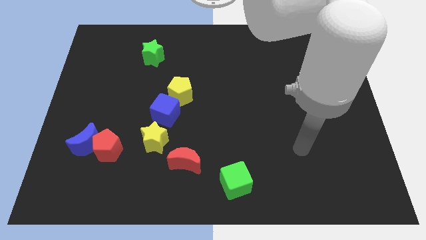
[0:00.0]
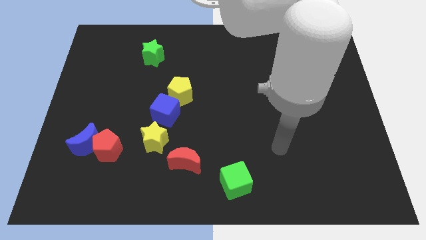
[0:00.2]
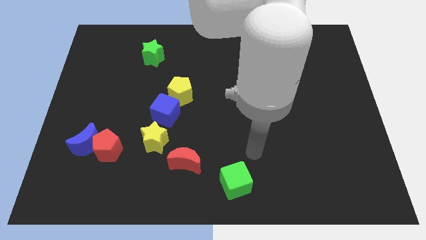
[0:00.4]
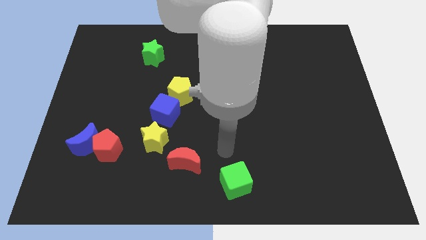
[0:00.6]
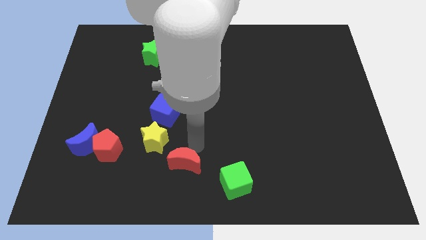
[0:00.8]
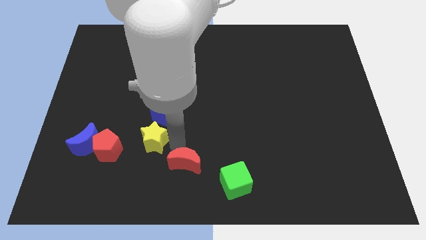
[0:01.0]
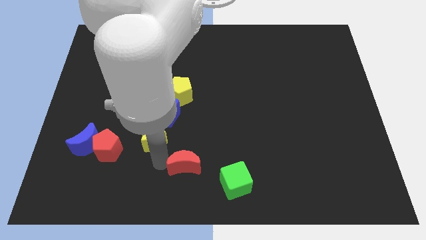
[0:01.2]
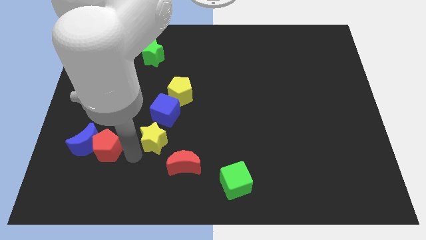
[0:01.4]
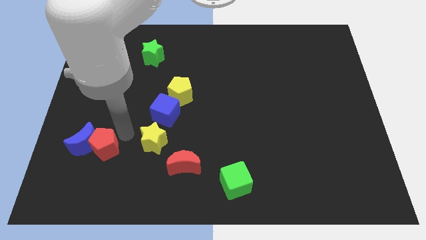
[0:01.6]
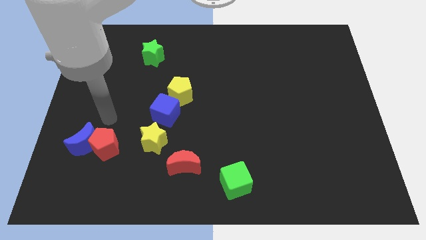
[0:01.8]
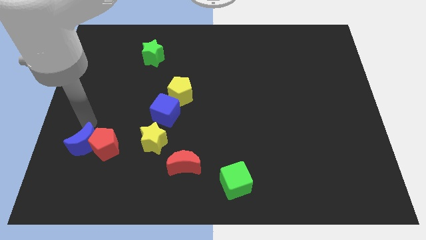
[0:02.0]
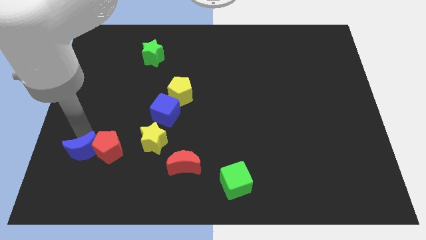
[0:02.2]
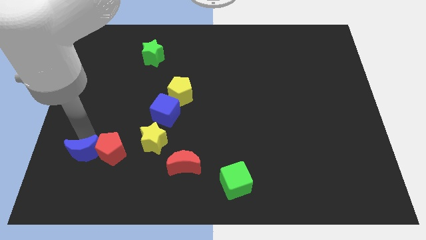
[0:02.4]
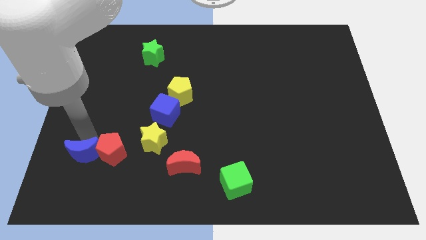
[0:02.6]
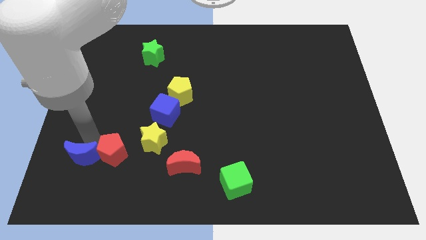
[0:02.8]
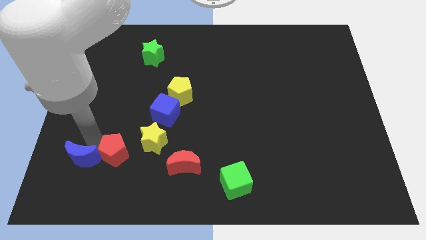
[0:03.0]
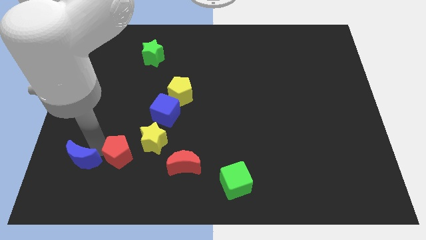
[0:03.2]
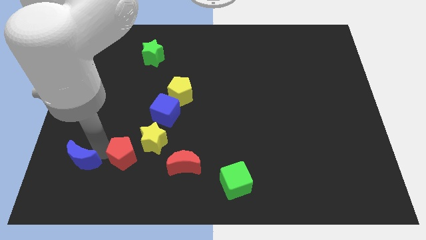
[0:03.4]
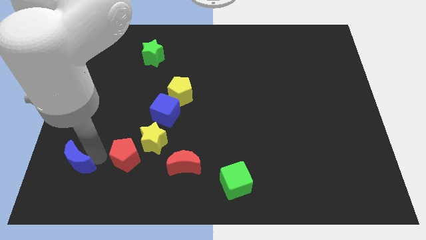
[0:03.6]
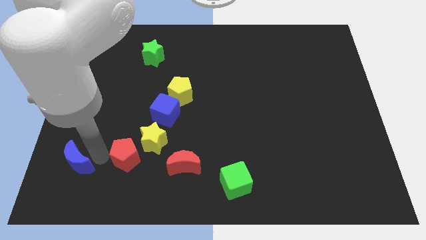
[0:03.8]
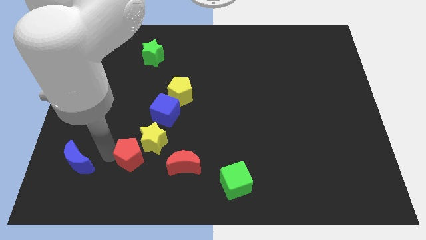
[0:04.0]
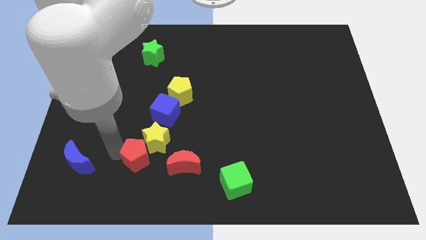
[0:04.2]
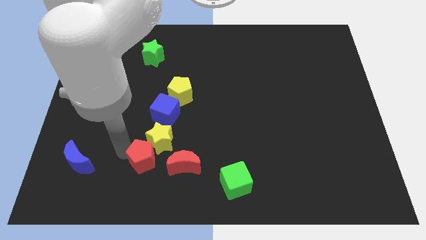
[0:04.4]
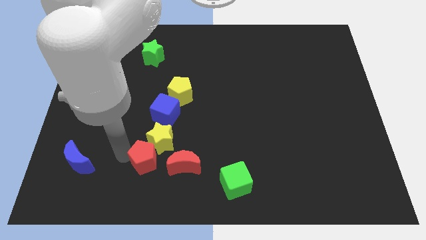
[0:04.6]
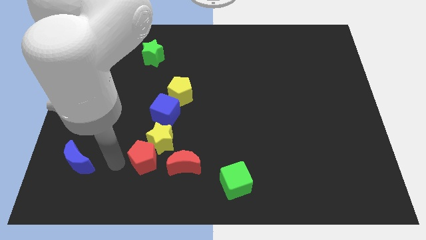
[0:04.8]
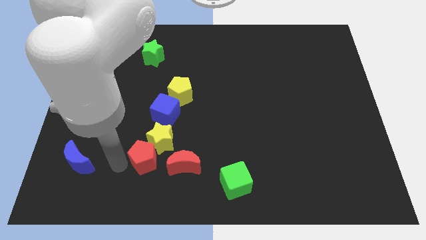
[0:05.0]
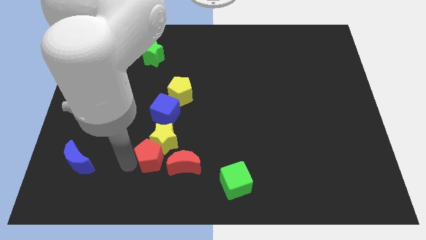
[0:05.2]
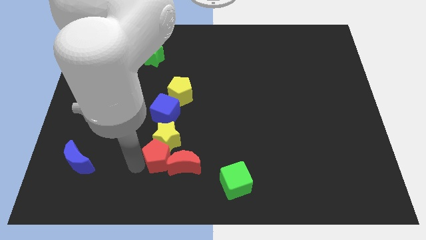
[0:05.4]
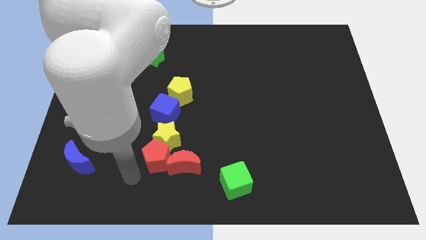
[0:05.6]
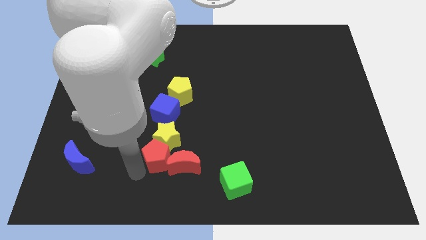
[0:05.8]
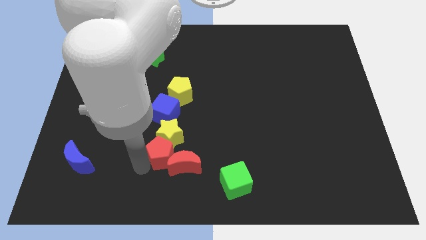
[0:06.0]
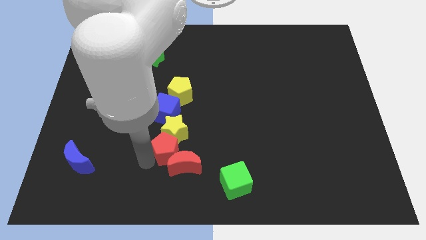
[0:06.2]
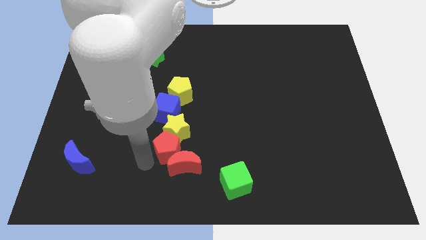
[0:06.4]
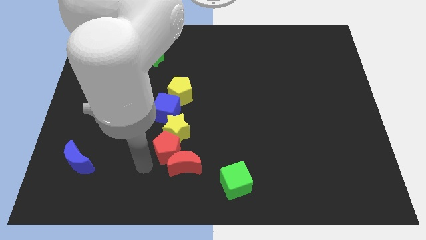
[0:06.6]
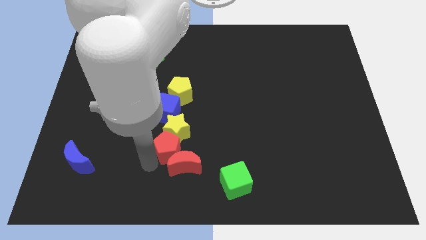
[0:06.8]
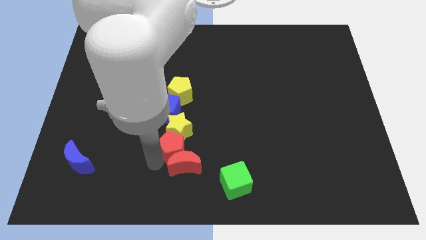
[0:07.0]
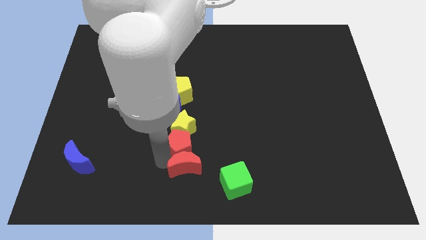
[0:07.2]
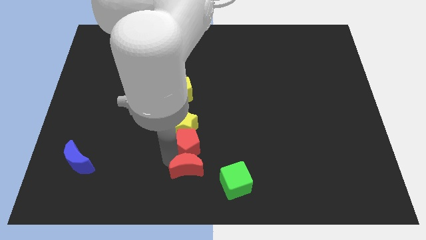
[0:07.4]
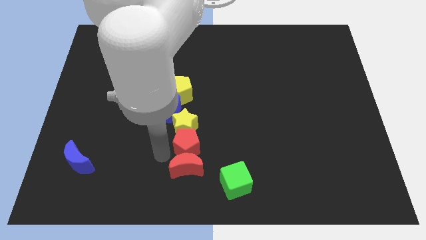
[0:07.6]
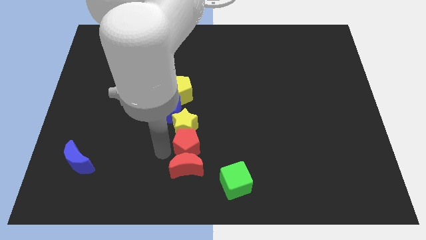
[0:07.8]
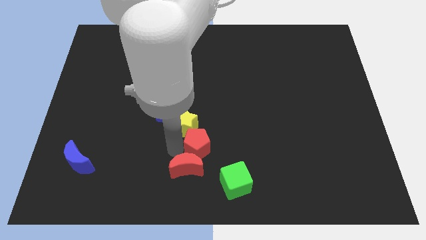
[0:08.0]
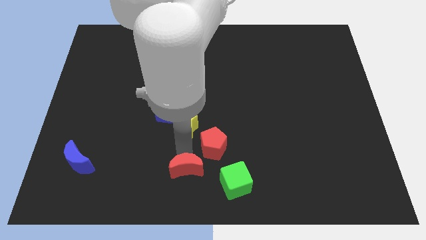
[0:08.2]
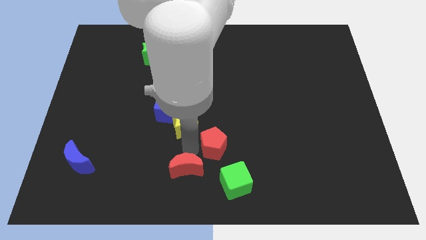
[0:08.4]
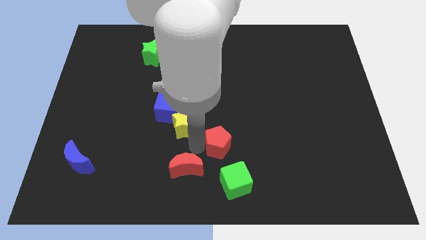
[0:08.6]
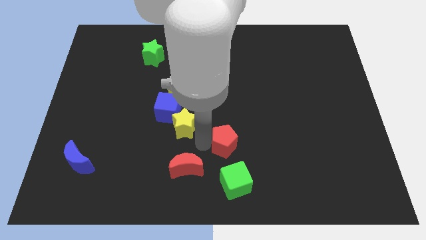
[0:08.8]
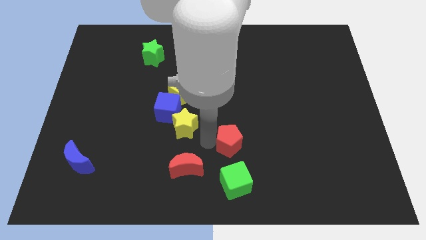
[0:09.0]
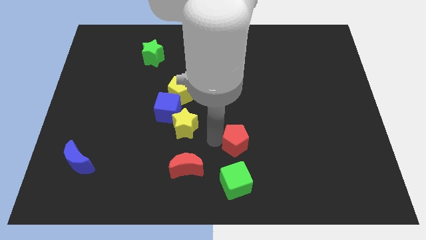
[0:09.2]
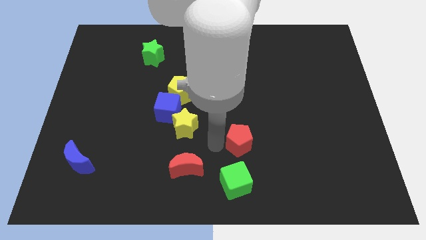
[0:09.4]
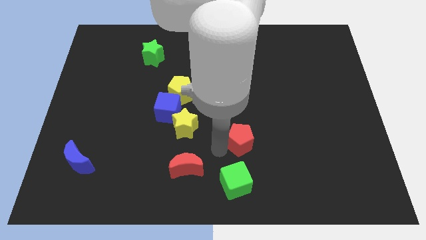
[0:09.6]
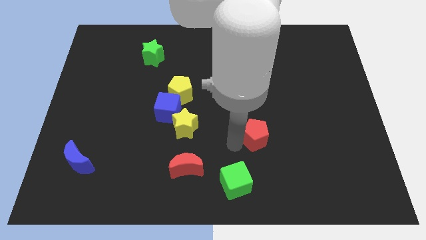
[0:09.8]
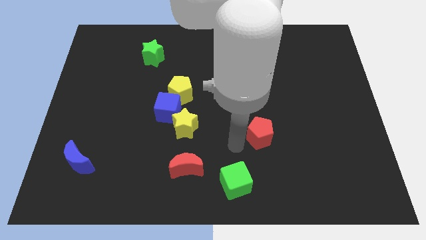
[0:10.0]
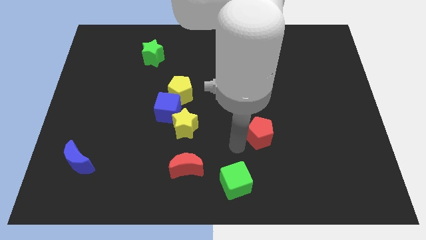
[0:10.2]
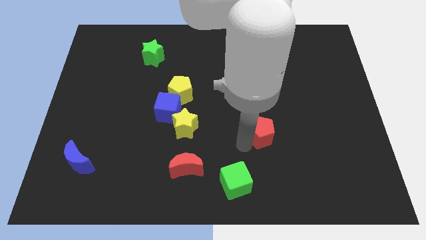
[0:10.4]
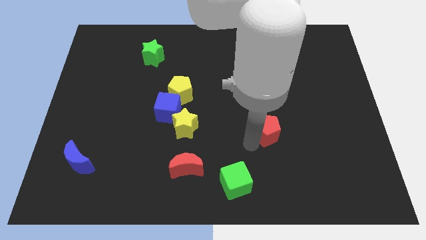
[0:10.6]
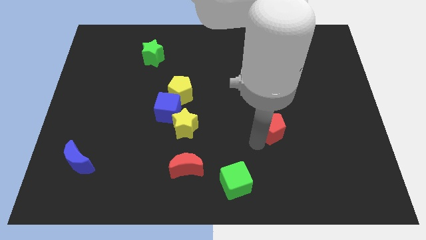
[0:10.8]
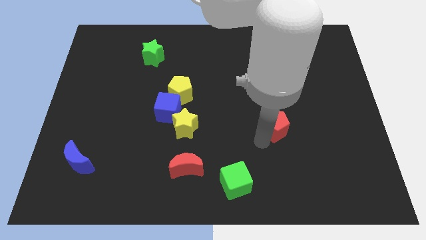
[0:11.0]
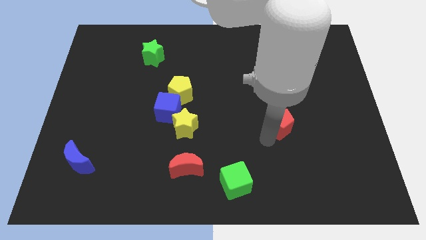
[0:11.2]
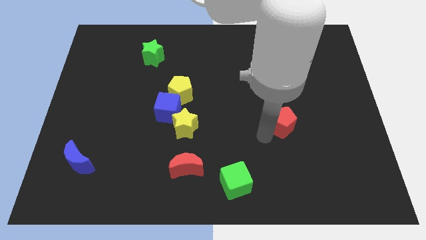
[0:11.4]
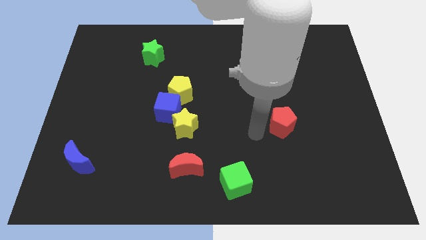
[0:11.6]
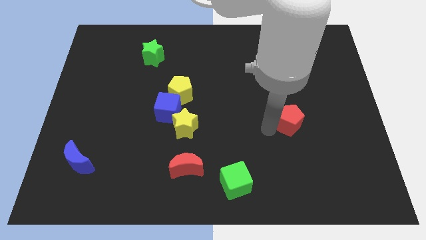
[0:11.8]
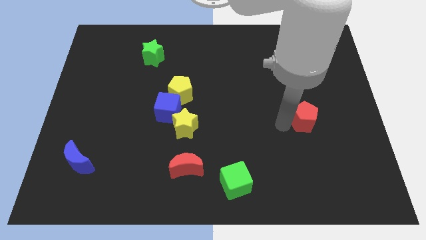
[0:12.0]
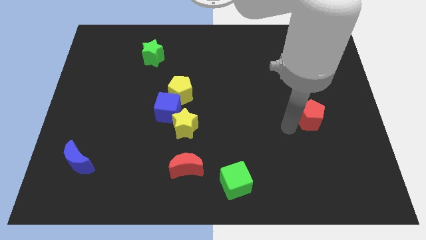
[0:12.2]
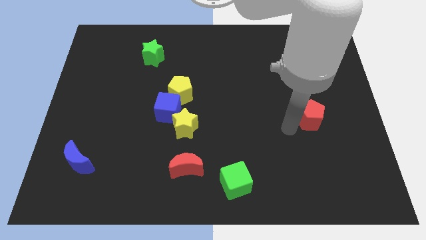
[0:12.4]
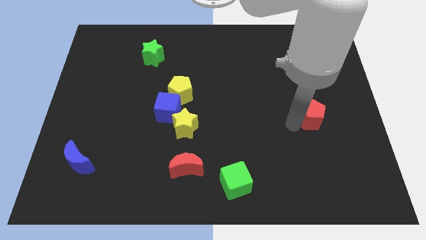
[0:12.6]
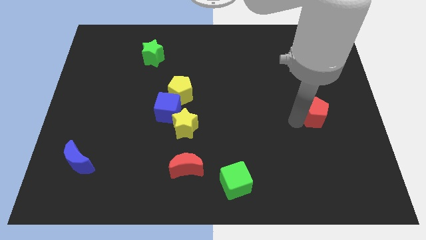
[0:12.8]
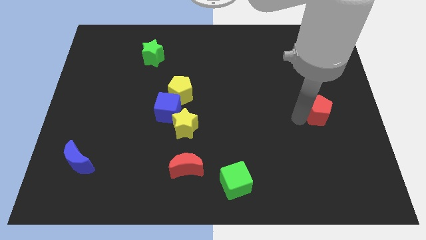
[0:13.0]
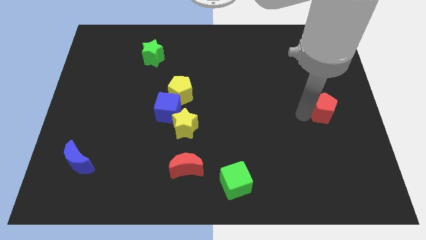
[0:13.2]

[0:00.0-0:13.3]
put the red pentagon to the right side
